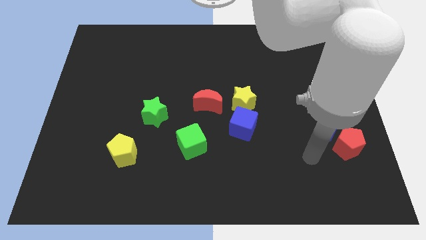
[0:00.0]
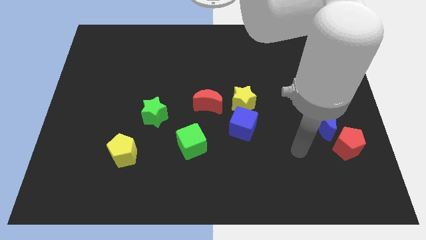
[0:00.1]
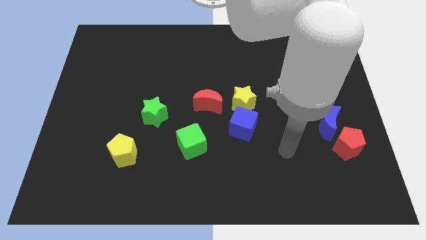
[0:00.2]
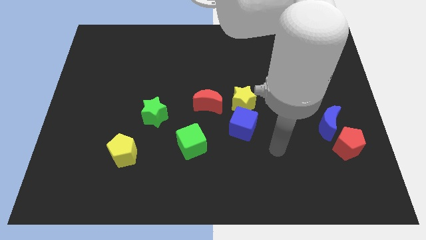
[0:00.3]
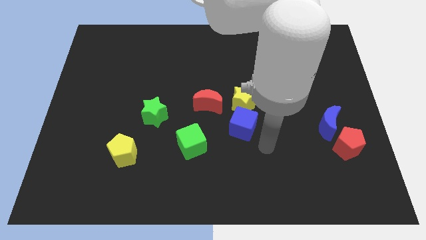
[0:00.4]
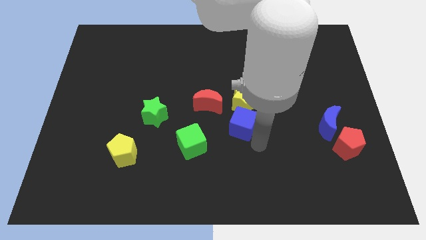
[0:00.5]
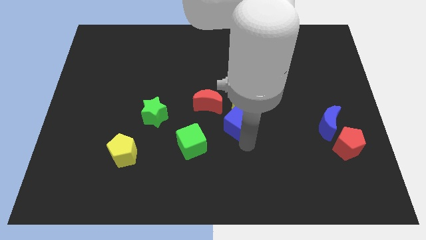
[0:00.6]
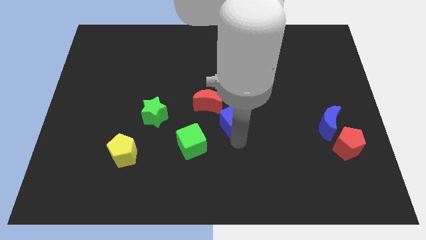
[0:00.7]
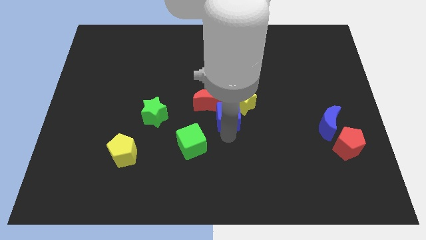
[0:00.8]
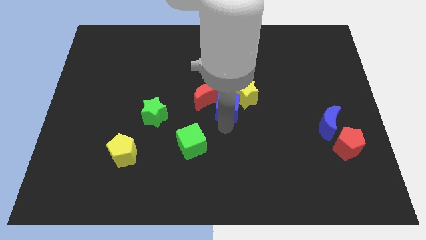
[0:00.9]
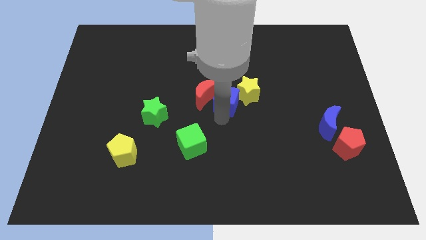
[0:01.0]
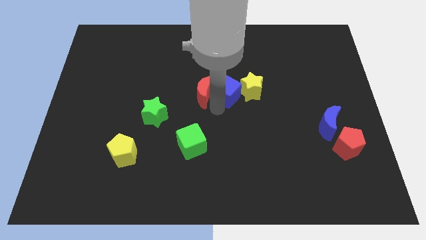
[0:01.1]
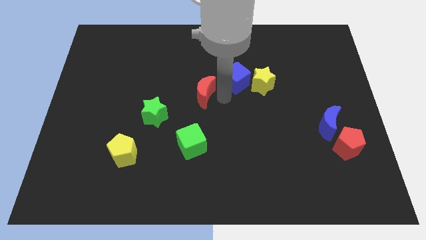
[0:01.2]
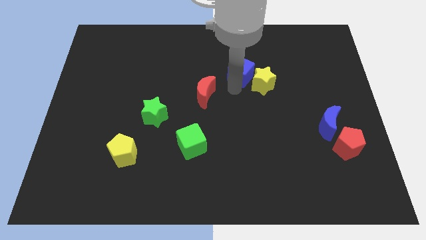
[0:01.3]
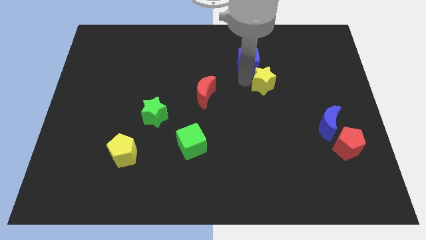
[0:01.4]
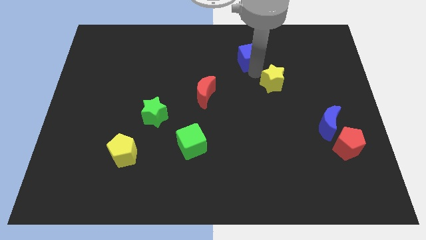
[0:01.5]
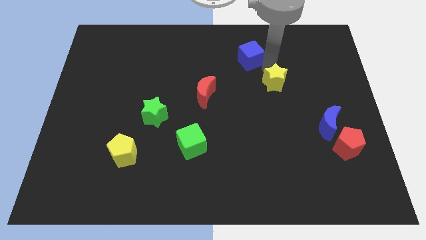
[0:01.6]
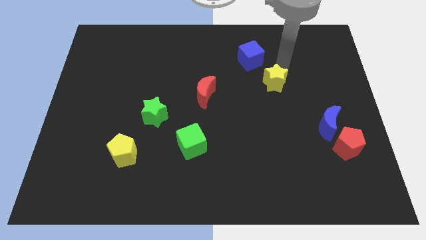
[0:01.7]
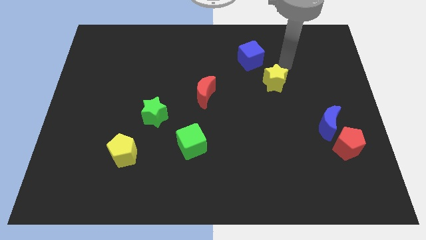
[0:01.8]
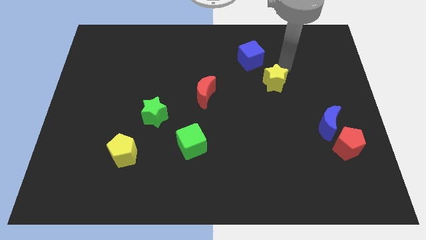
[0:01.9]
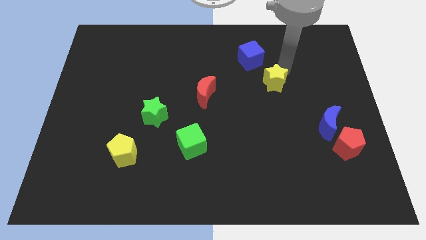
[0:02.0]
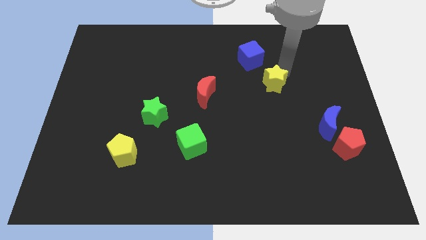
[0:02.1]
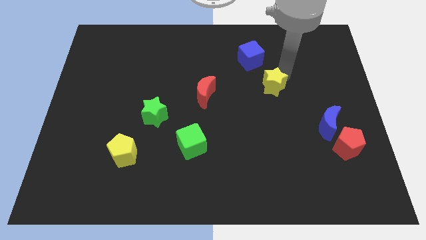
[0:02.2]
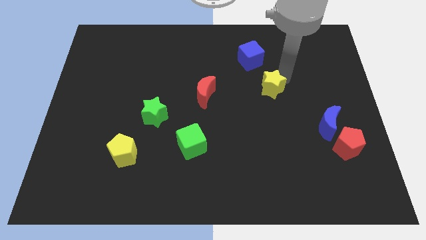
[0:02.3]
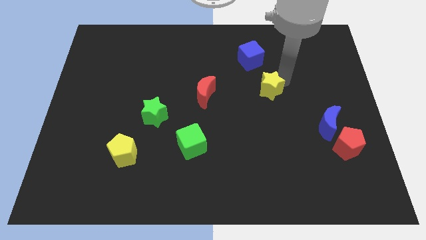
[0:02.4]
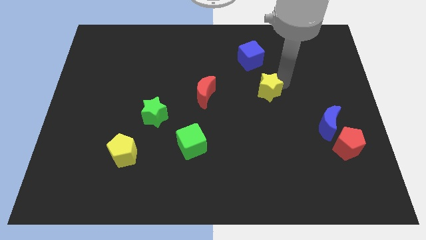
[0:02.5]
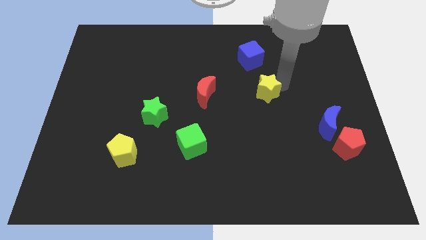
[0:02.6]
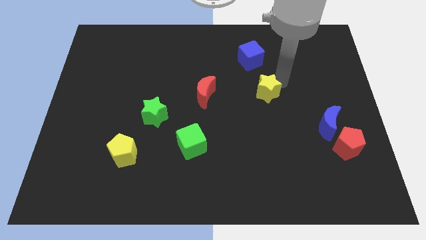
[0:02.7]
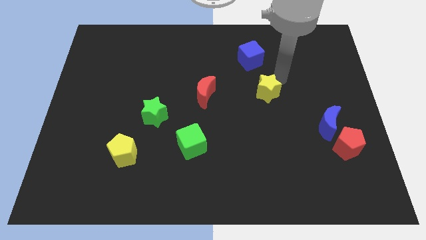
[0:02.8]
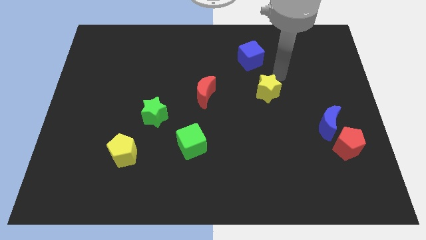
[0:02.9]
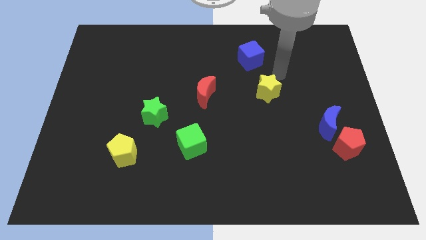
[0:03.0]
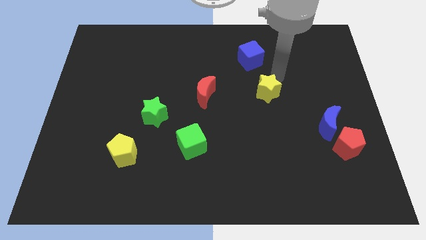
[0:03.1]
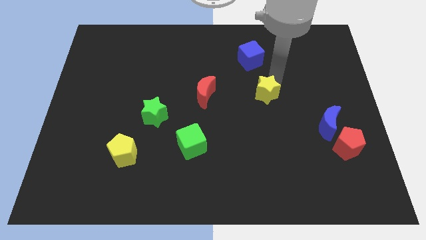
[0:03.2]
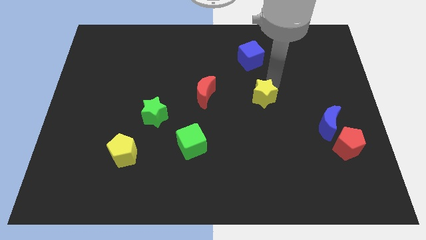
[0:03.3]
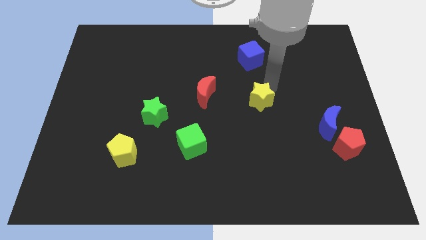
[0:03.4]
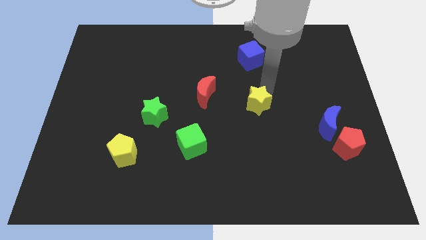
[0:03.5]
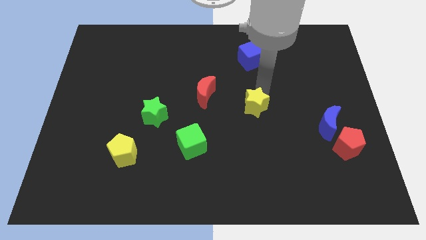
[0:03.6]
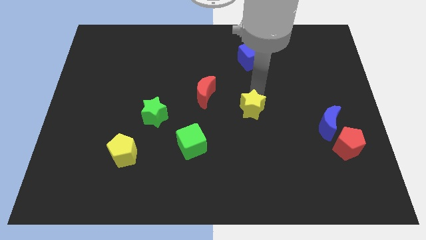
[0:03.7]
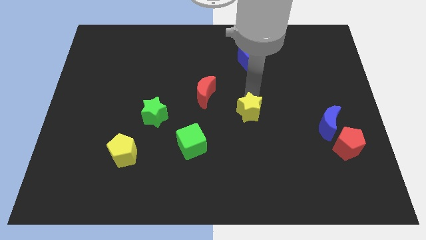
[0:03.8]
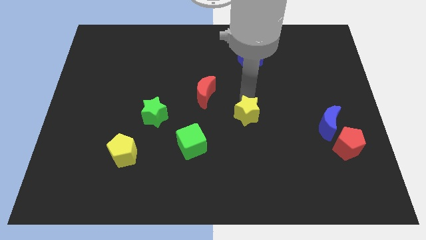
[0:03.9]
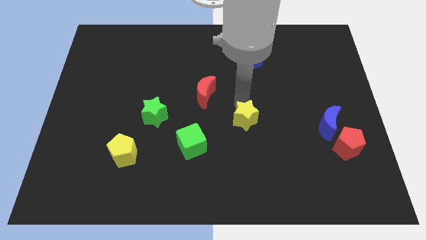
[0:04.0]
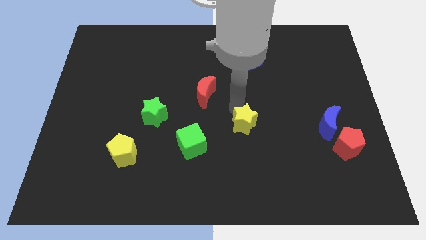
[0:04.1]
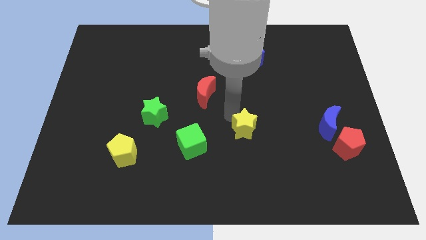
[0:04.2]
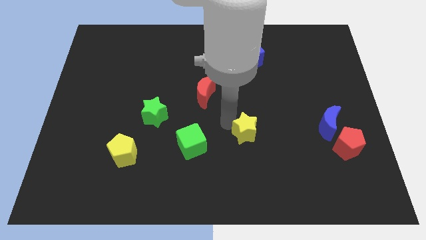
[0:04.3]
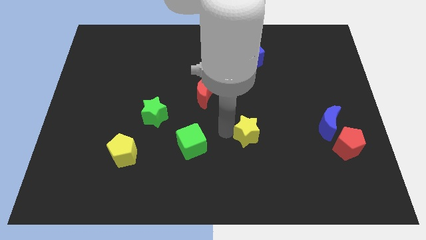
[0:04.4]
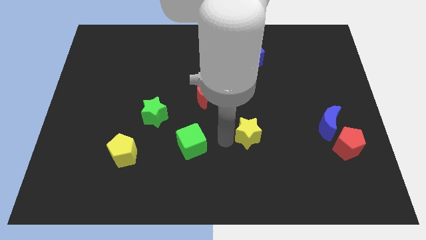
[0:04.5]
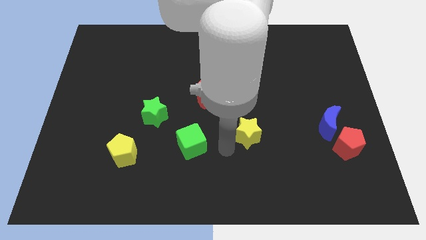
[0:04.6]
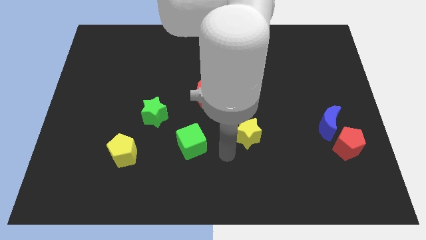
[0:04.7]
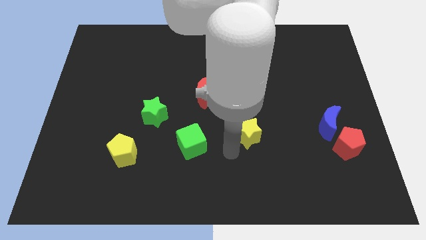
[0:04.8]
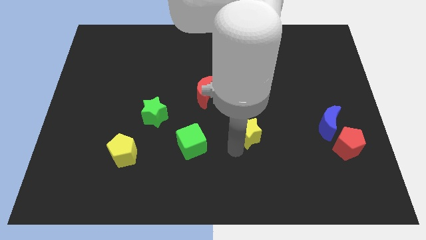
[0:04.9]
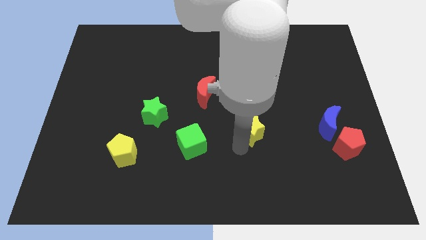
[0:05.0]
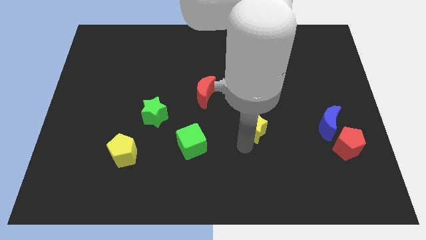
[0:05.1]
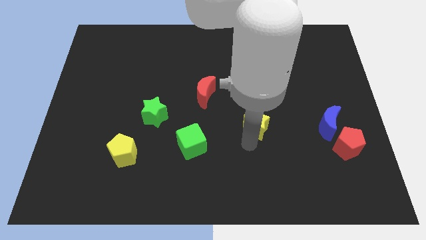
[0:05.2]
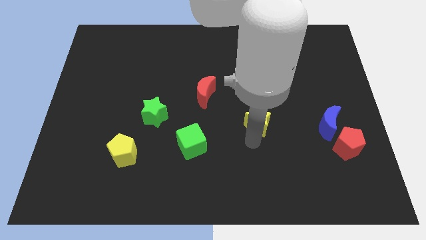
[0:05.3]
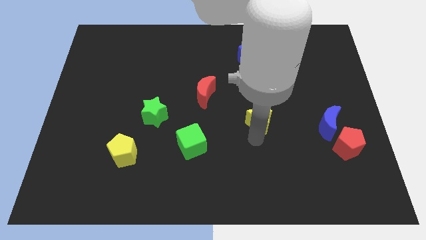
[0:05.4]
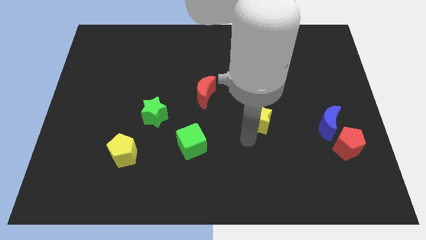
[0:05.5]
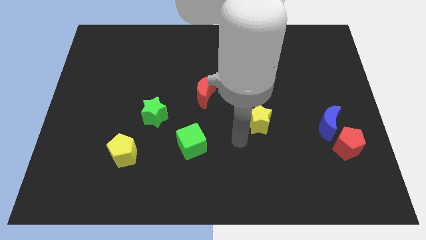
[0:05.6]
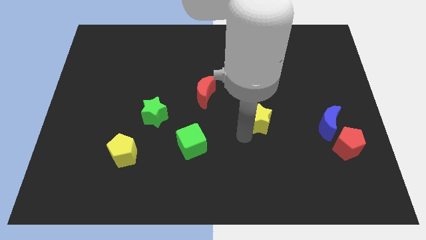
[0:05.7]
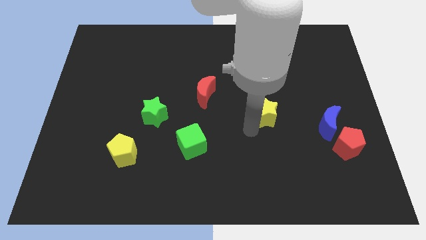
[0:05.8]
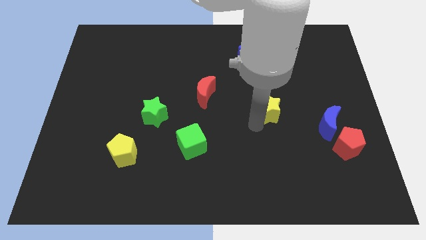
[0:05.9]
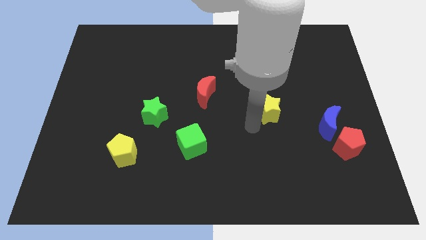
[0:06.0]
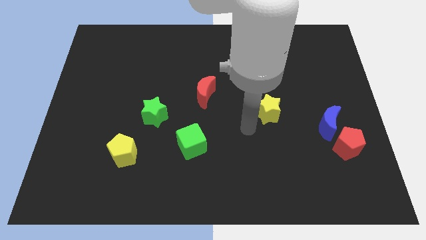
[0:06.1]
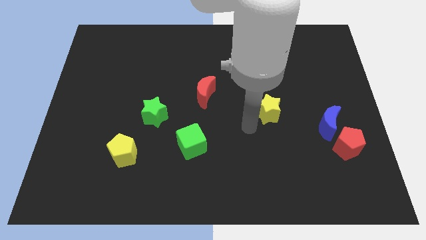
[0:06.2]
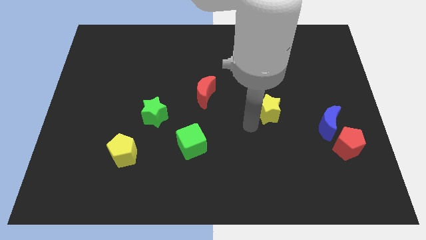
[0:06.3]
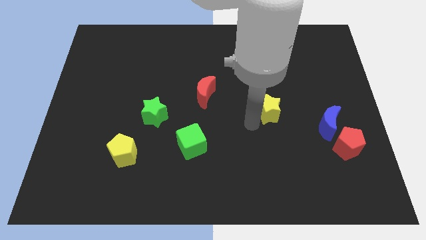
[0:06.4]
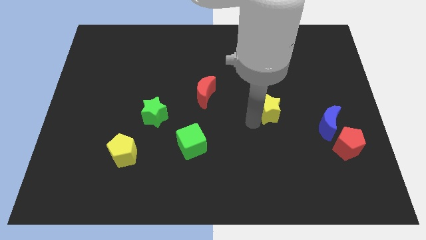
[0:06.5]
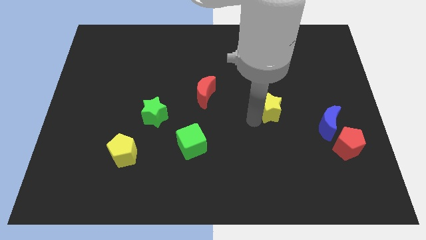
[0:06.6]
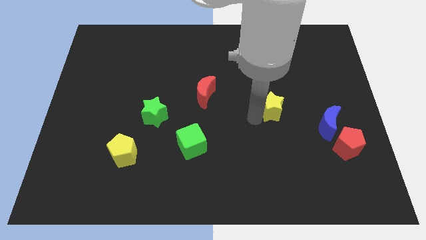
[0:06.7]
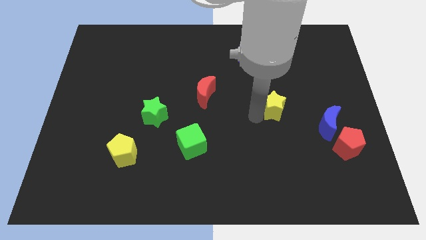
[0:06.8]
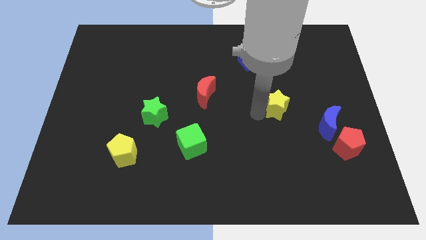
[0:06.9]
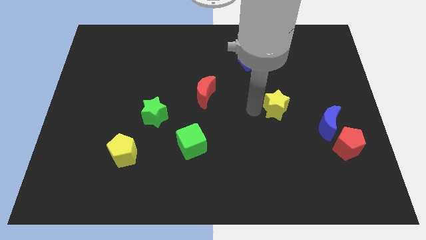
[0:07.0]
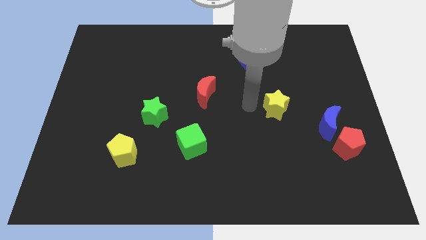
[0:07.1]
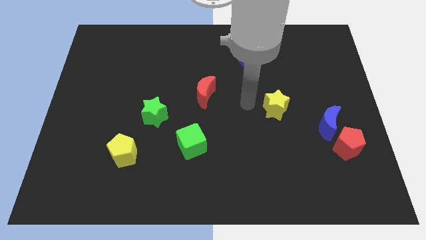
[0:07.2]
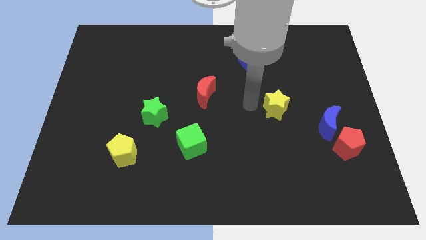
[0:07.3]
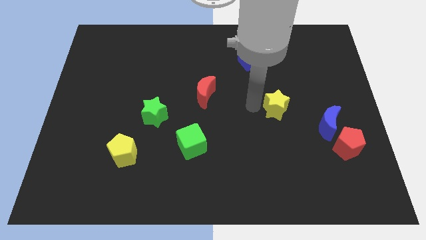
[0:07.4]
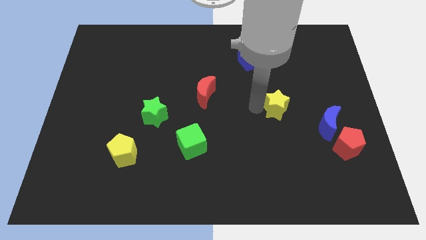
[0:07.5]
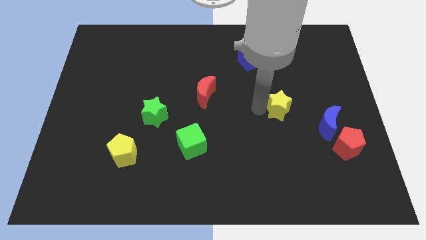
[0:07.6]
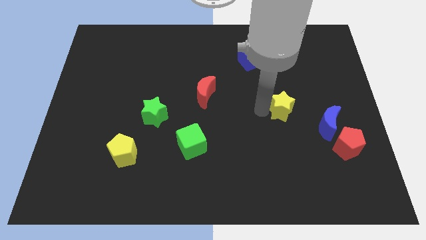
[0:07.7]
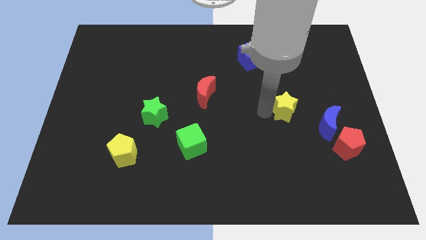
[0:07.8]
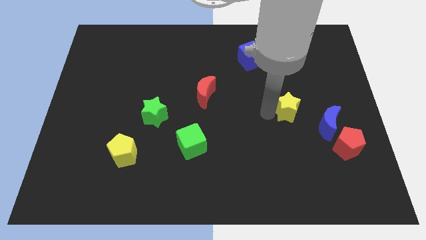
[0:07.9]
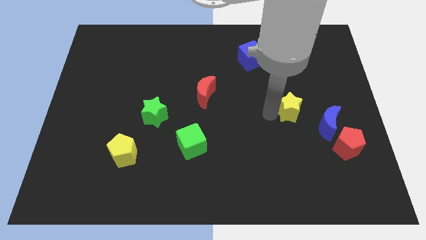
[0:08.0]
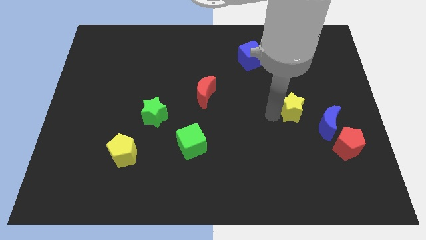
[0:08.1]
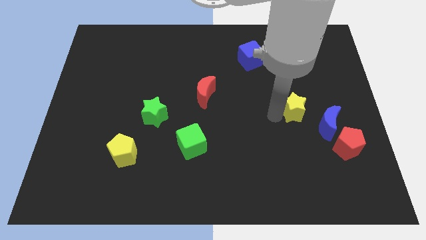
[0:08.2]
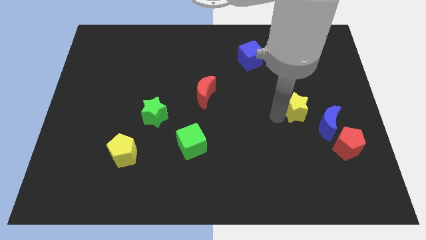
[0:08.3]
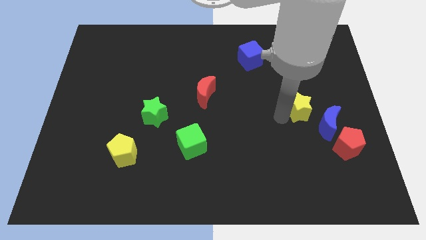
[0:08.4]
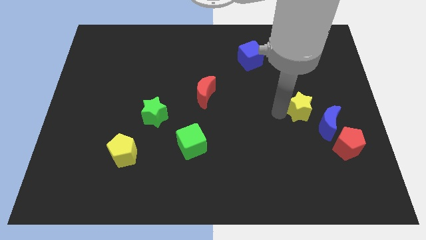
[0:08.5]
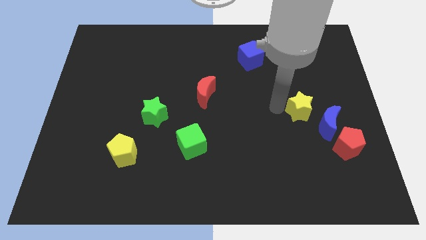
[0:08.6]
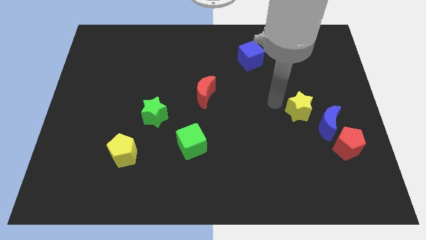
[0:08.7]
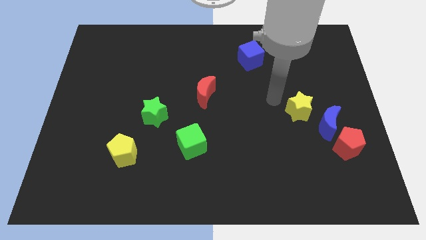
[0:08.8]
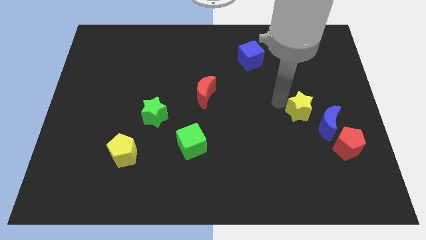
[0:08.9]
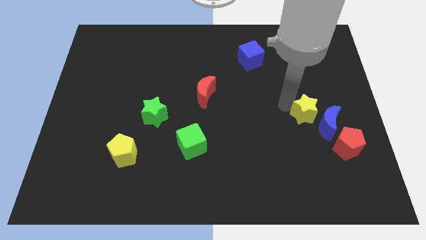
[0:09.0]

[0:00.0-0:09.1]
move the yellow star towards the blue moon
